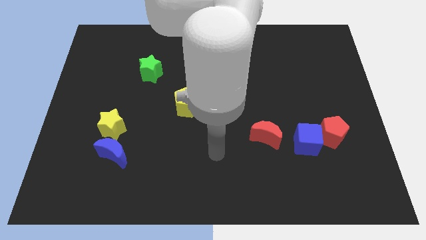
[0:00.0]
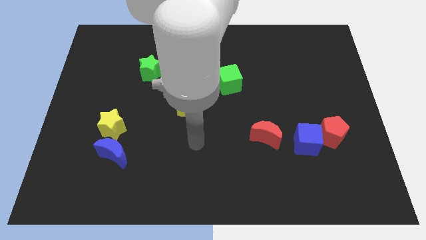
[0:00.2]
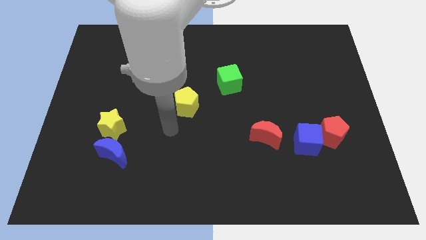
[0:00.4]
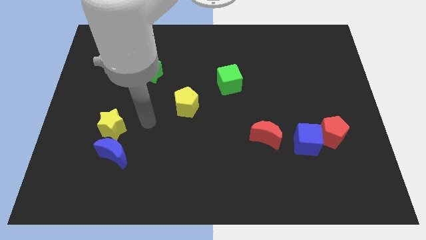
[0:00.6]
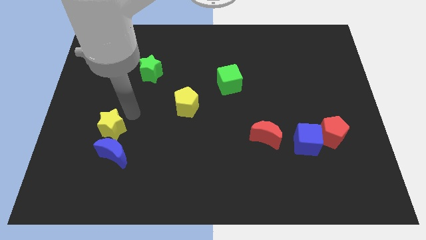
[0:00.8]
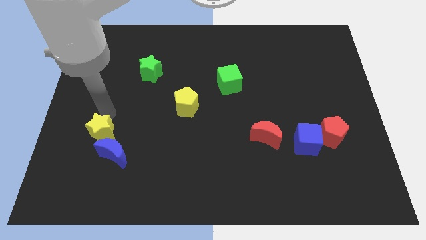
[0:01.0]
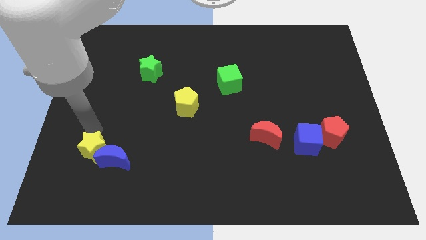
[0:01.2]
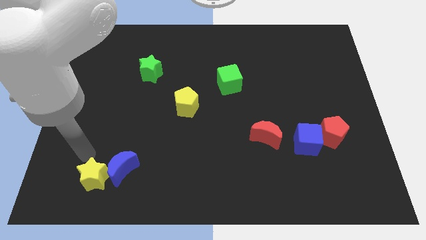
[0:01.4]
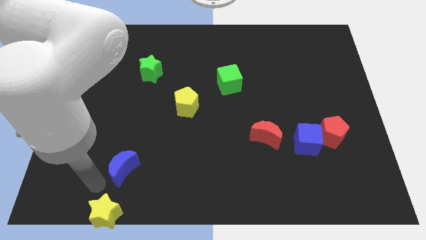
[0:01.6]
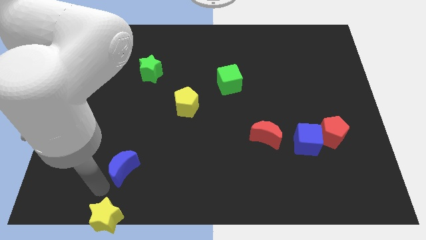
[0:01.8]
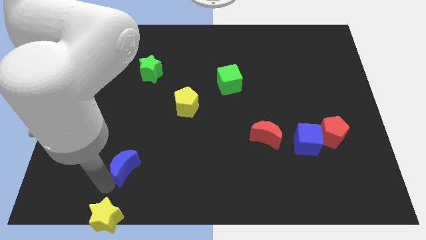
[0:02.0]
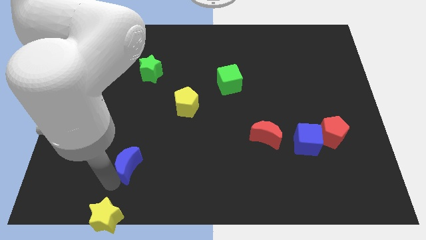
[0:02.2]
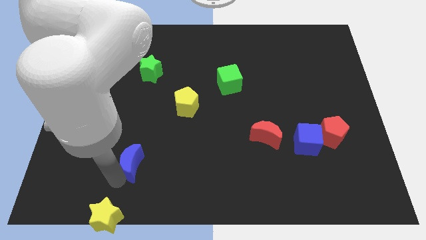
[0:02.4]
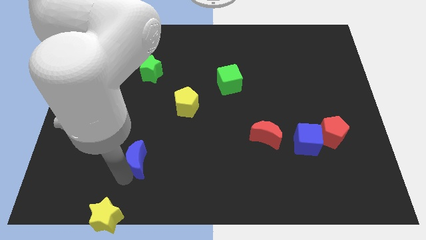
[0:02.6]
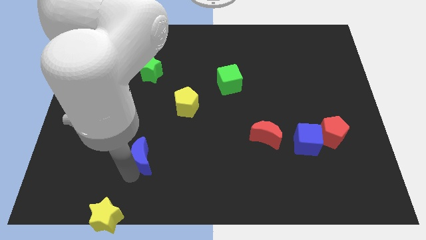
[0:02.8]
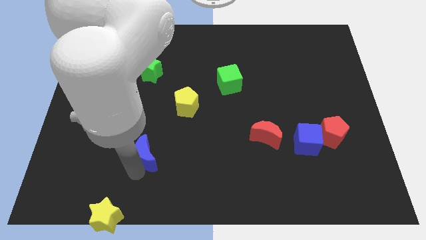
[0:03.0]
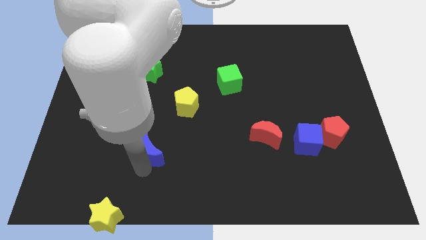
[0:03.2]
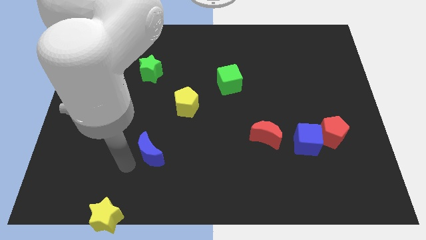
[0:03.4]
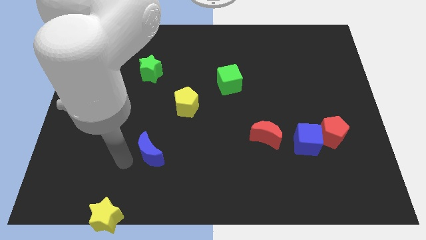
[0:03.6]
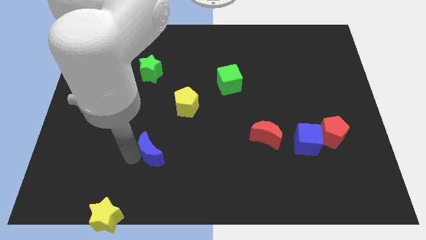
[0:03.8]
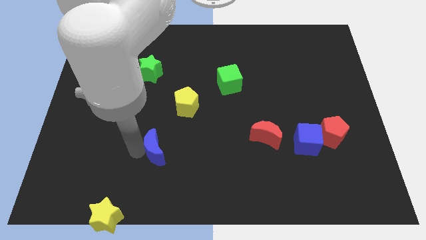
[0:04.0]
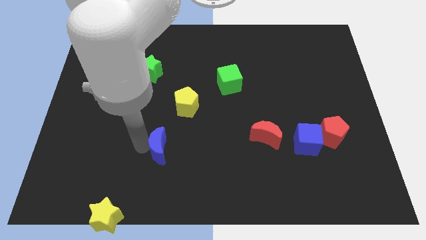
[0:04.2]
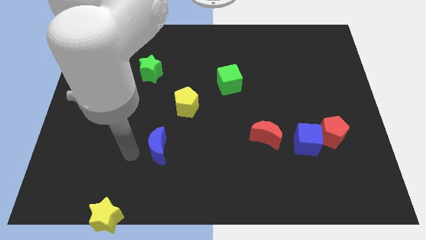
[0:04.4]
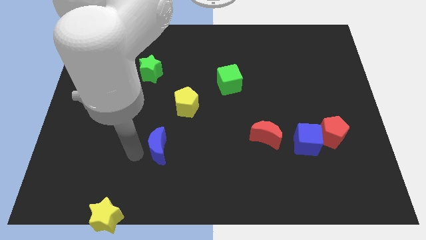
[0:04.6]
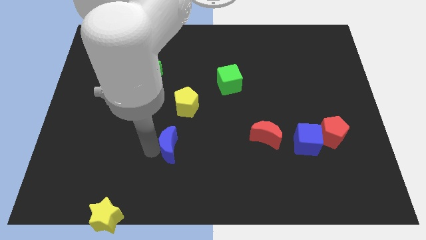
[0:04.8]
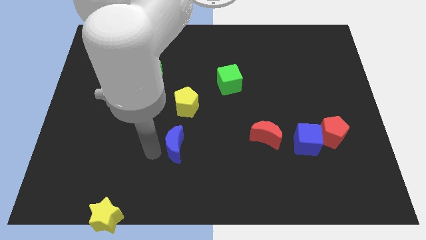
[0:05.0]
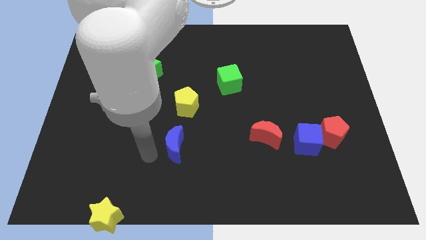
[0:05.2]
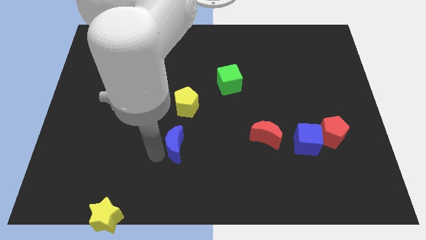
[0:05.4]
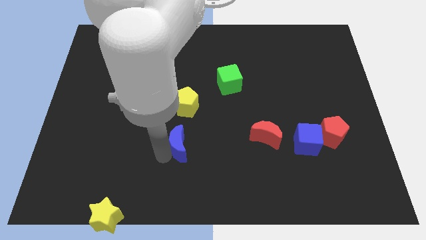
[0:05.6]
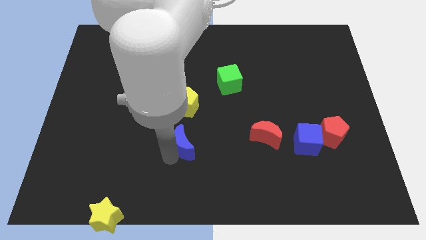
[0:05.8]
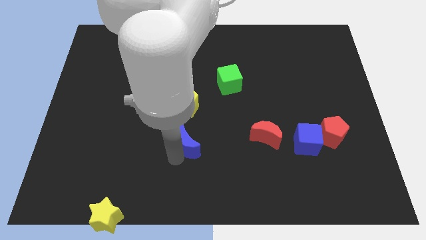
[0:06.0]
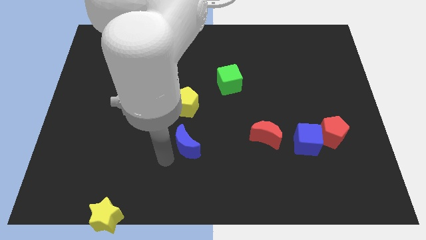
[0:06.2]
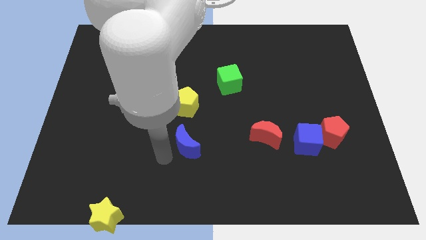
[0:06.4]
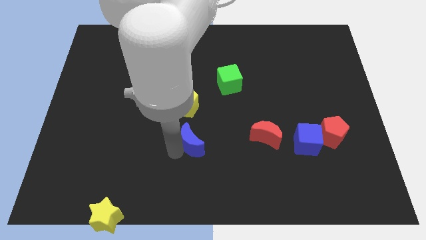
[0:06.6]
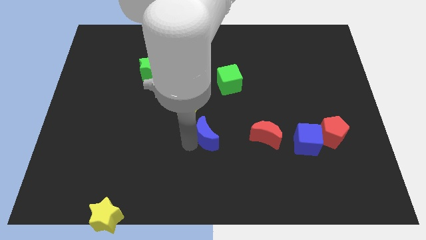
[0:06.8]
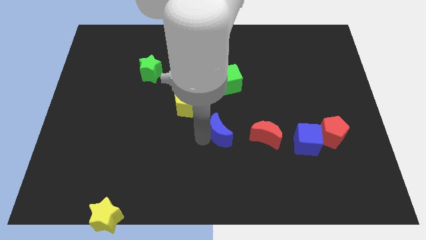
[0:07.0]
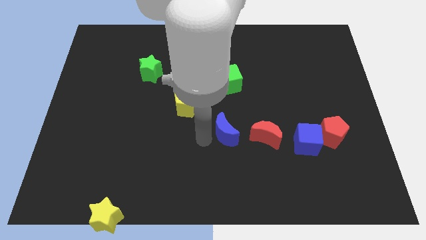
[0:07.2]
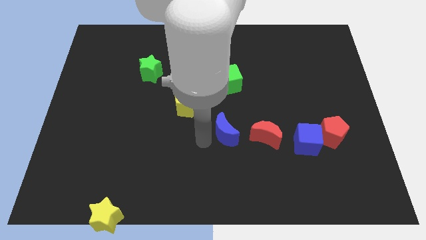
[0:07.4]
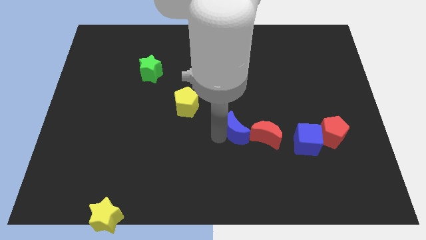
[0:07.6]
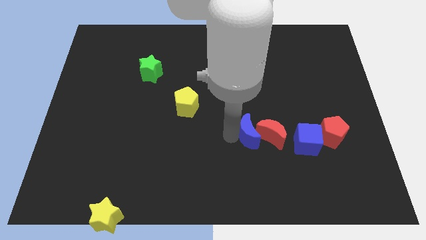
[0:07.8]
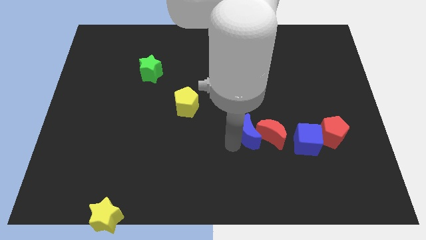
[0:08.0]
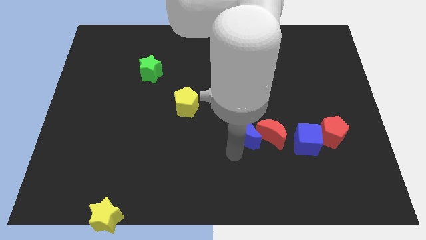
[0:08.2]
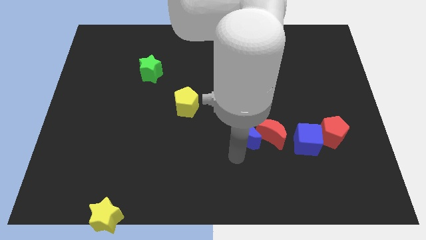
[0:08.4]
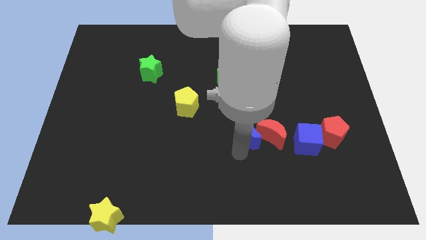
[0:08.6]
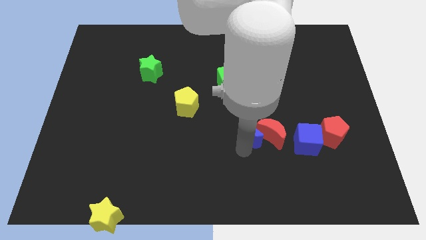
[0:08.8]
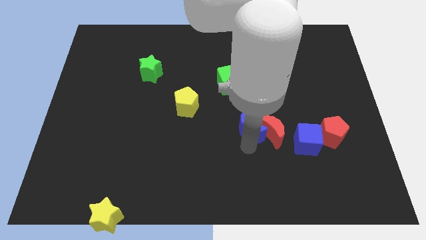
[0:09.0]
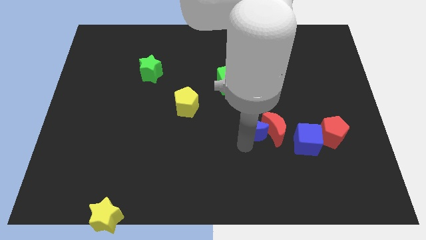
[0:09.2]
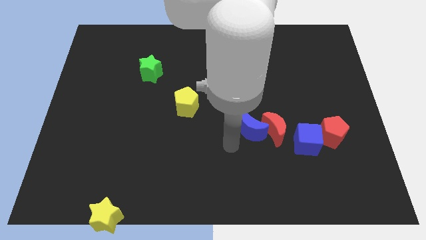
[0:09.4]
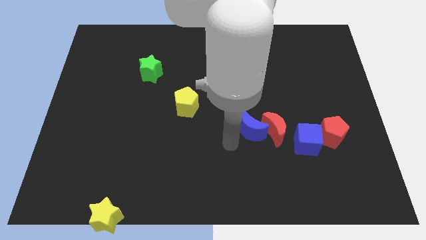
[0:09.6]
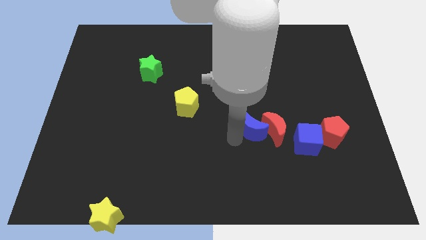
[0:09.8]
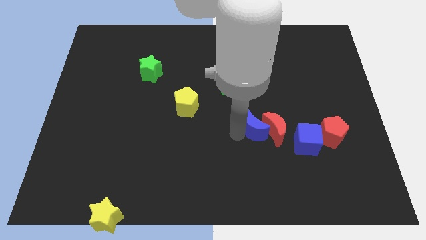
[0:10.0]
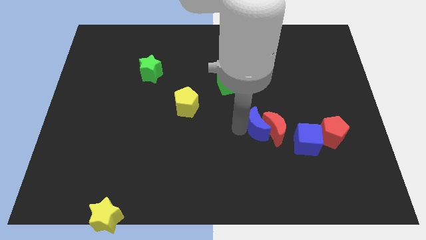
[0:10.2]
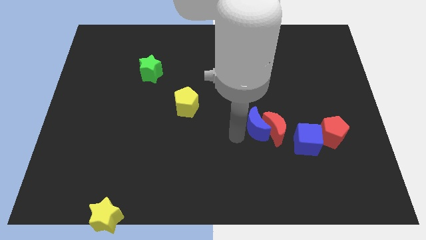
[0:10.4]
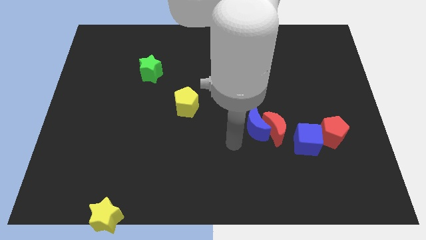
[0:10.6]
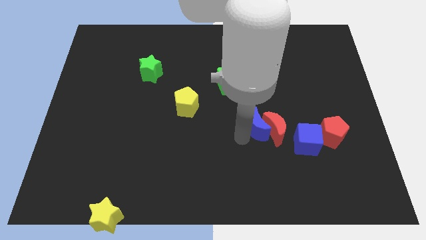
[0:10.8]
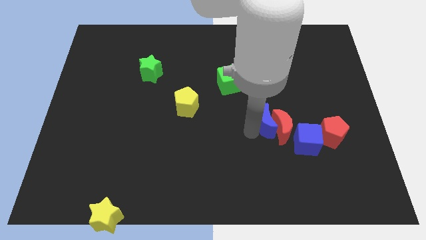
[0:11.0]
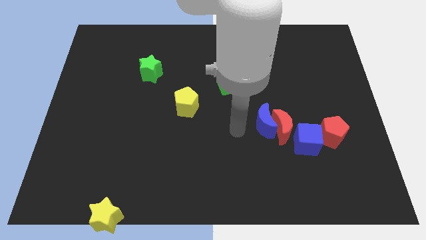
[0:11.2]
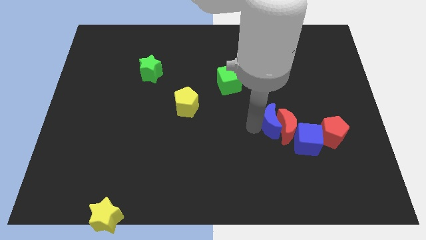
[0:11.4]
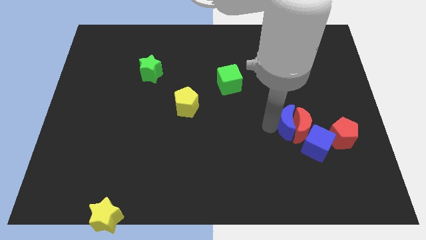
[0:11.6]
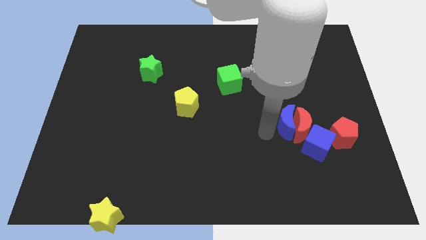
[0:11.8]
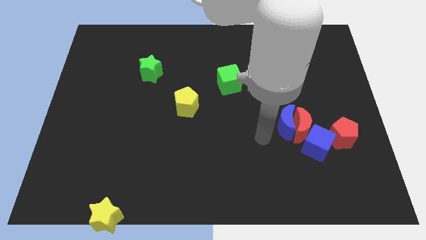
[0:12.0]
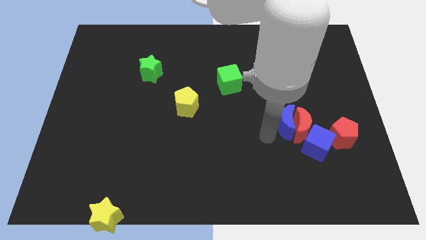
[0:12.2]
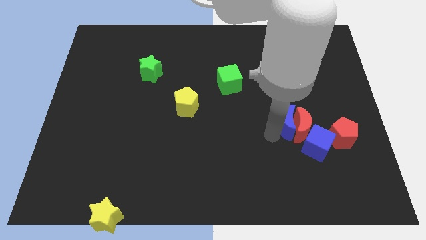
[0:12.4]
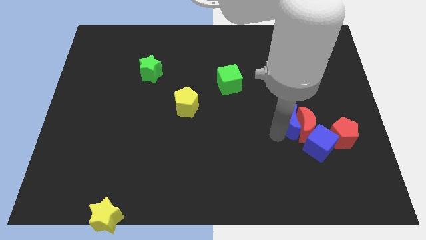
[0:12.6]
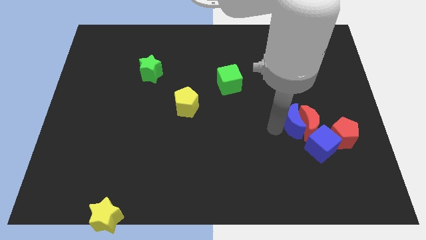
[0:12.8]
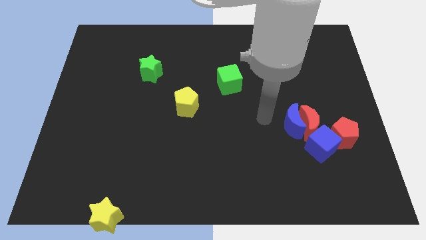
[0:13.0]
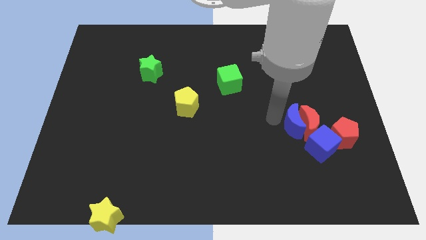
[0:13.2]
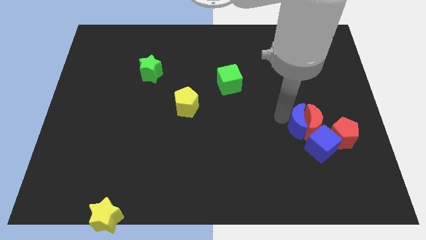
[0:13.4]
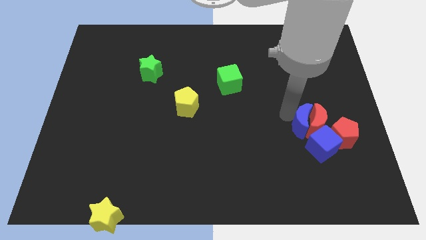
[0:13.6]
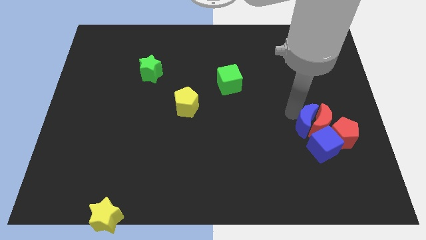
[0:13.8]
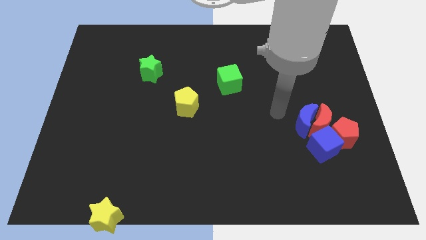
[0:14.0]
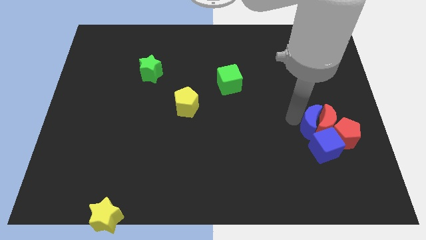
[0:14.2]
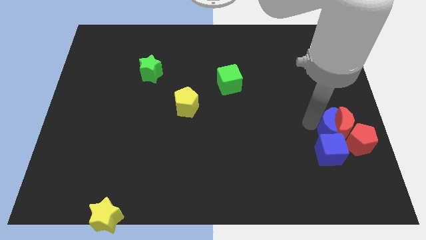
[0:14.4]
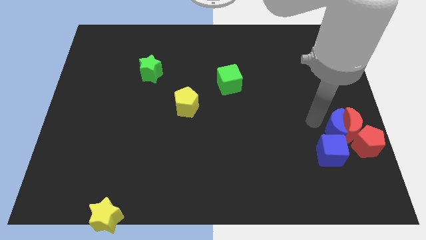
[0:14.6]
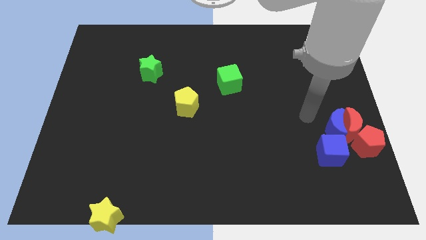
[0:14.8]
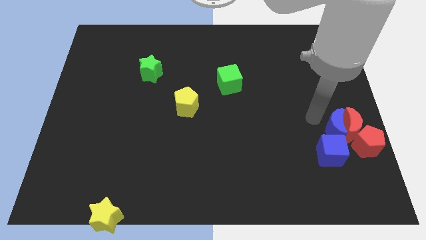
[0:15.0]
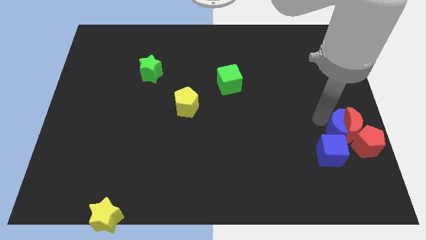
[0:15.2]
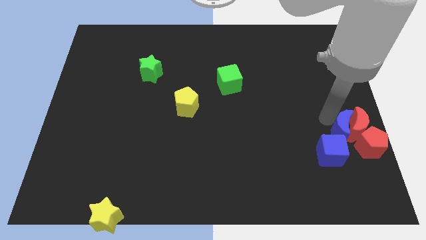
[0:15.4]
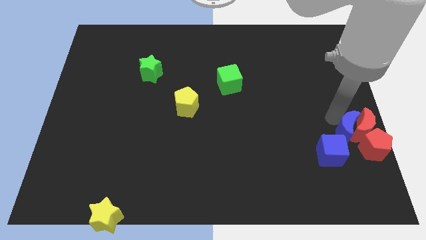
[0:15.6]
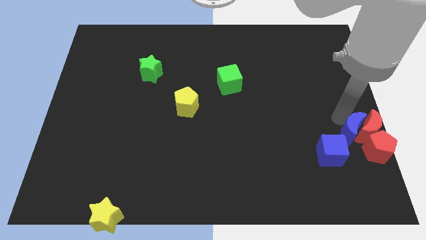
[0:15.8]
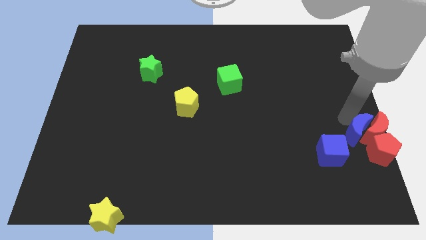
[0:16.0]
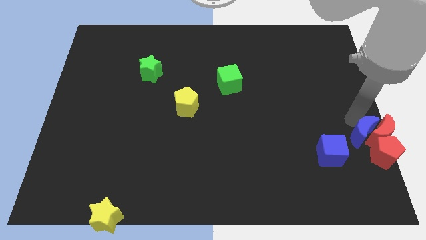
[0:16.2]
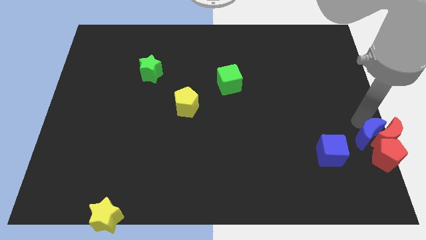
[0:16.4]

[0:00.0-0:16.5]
push the blue moon next to the red pentagon
